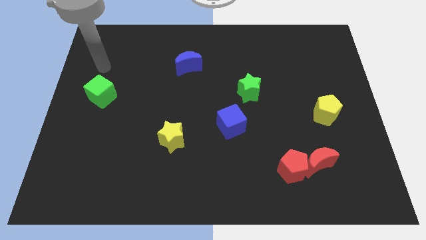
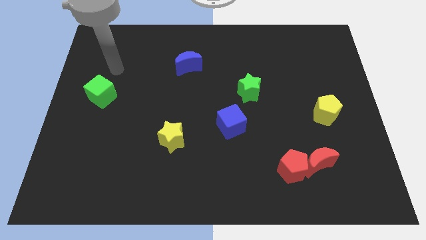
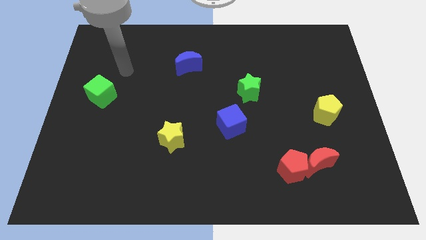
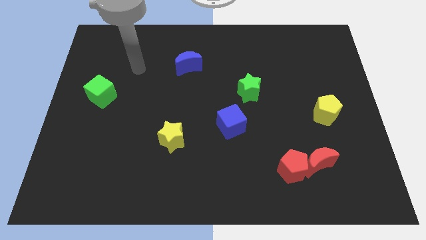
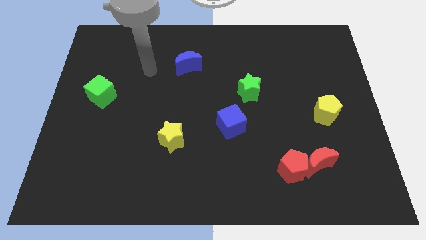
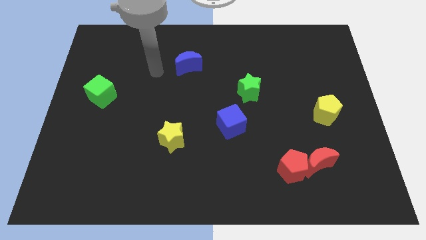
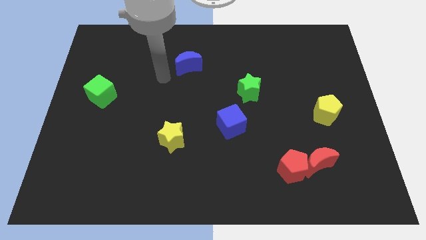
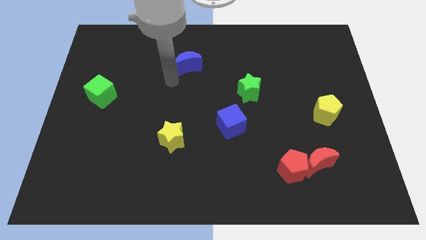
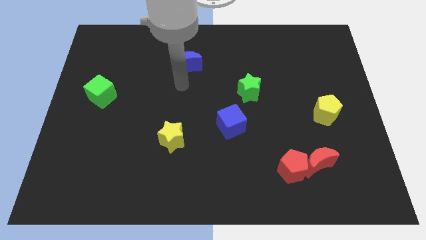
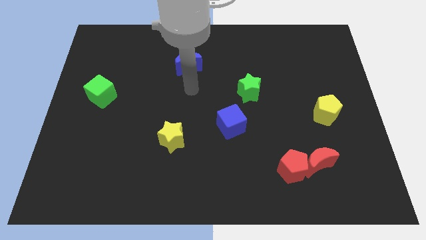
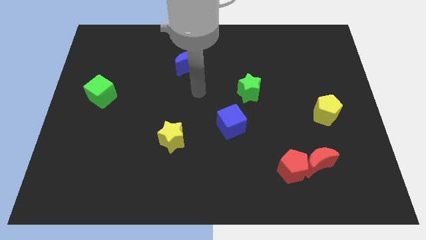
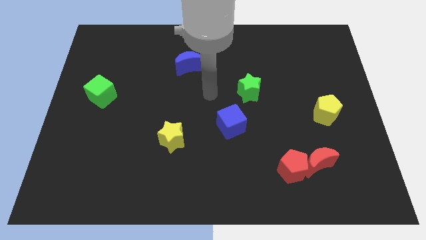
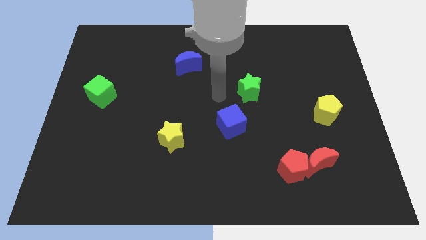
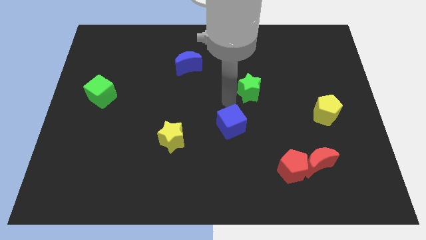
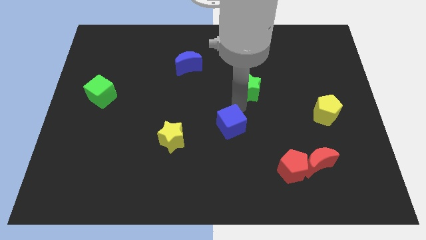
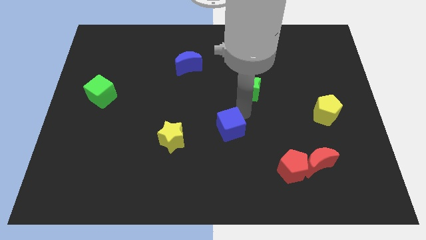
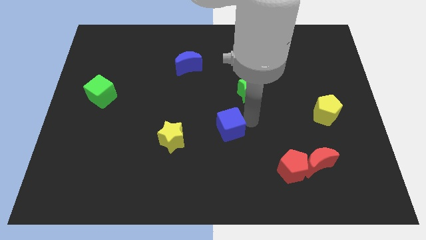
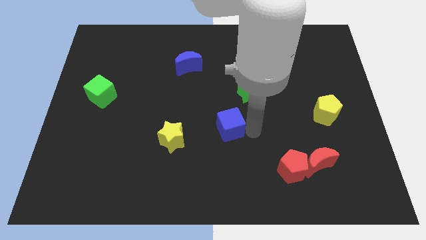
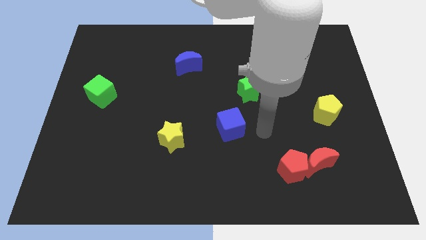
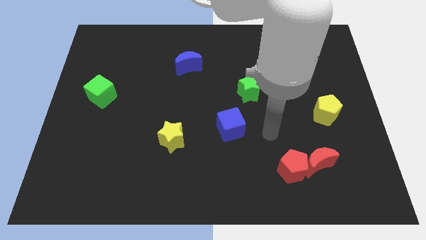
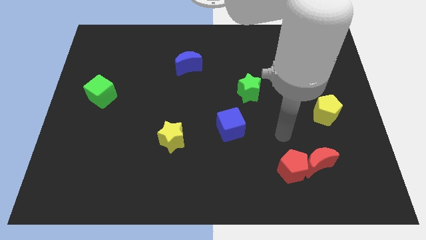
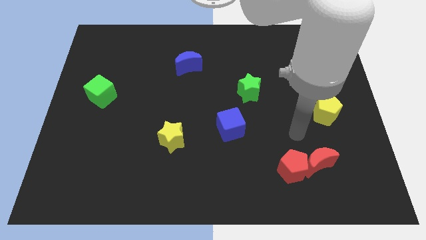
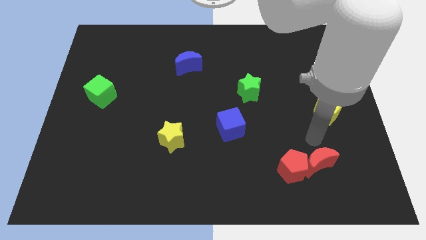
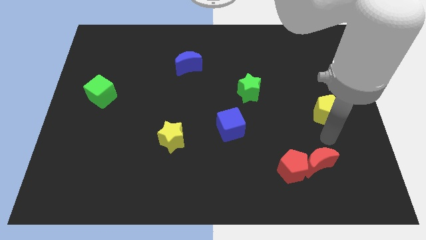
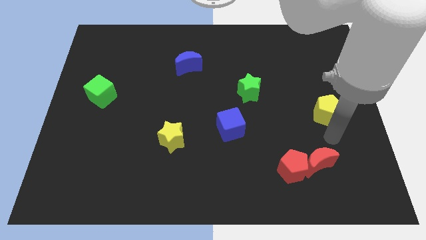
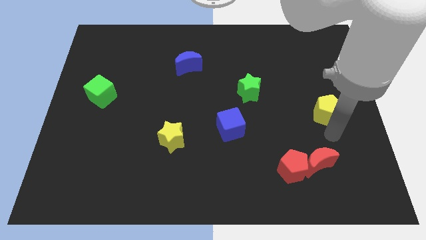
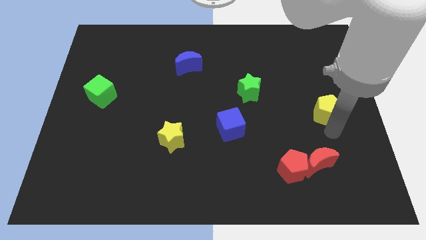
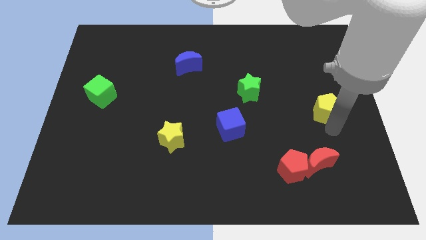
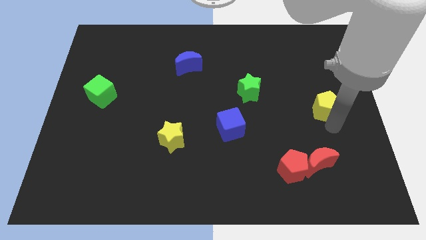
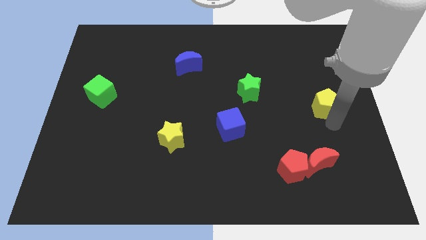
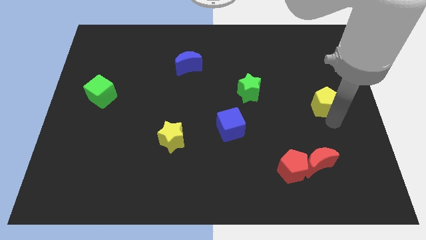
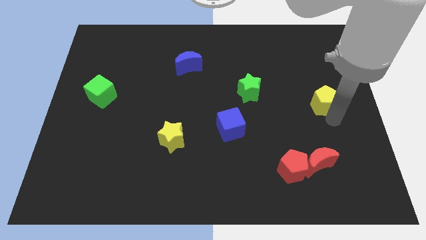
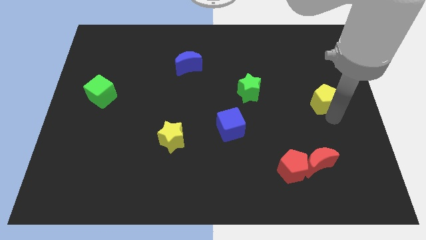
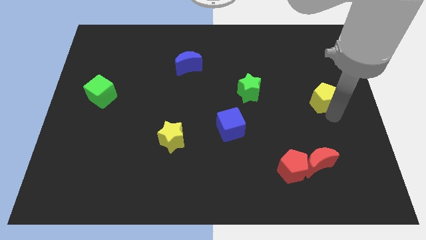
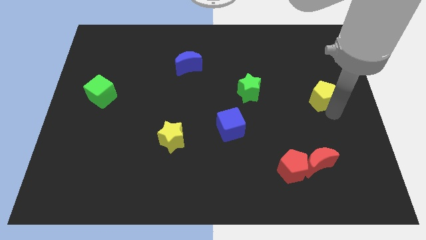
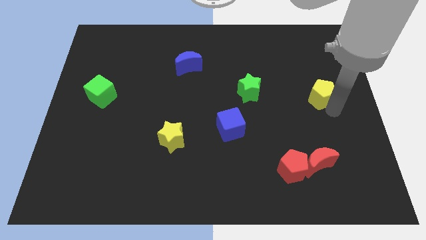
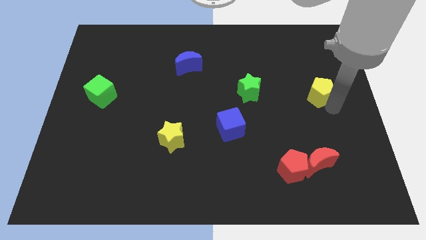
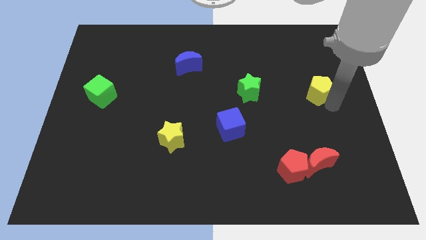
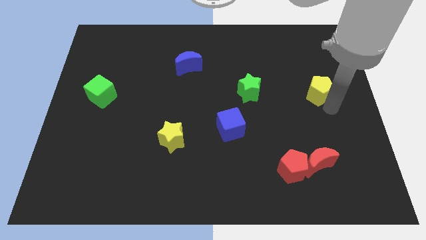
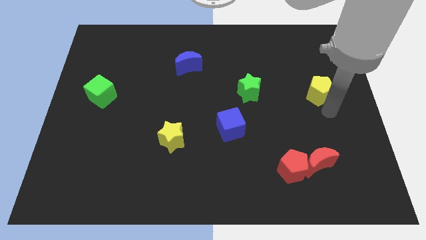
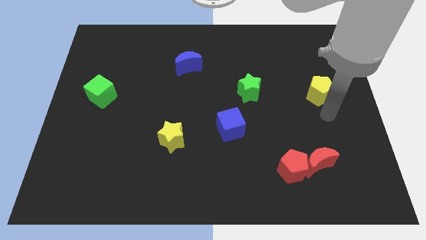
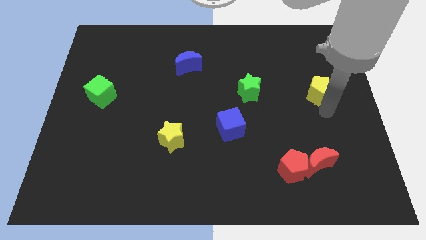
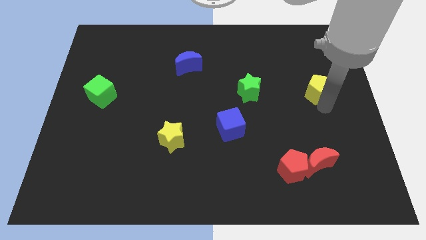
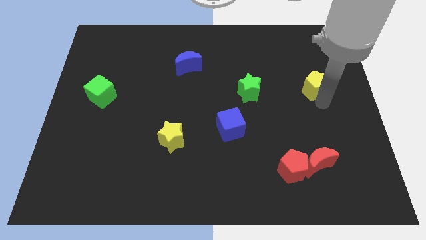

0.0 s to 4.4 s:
slightly slide the yellow pentagon upwards

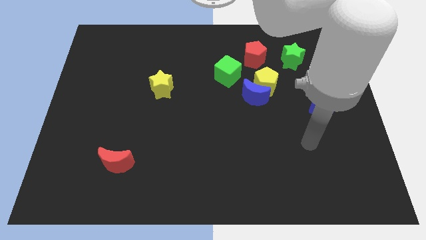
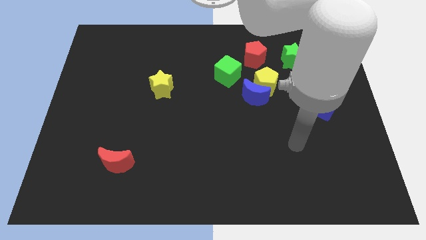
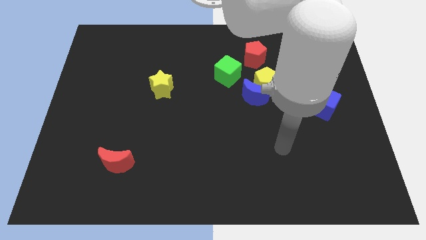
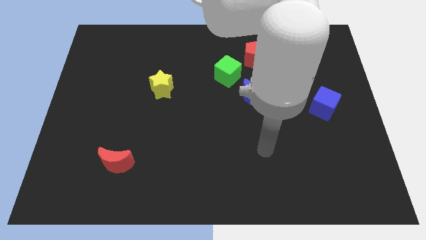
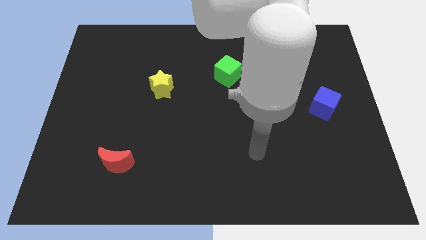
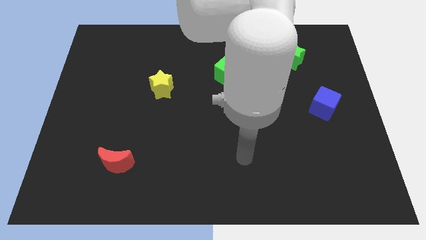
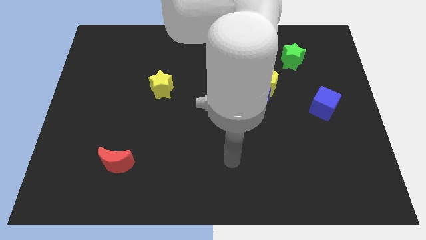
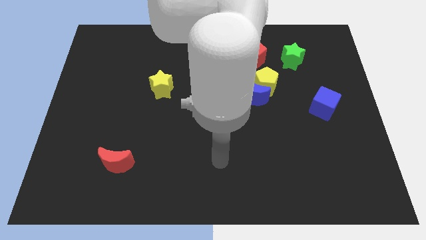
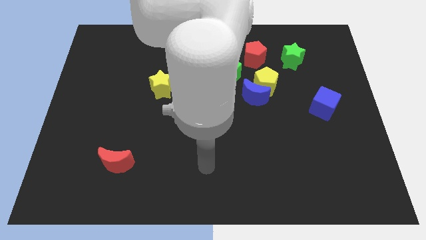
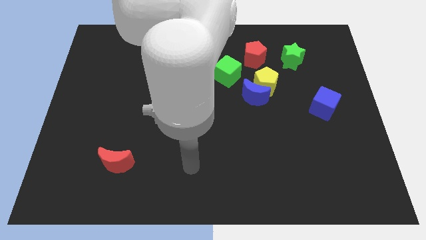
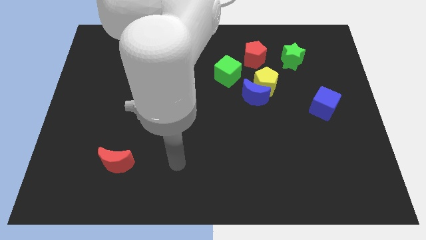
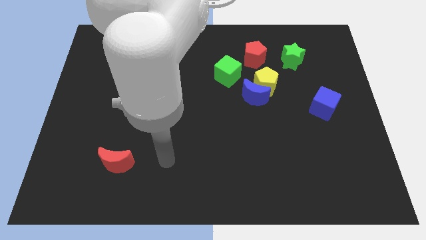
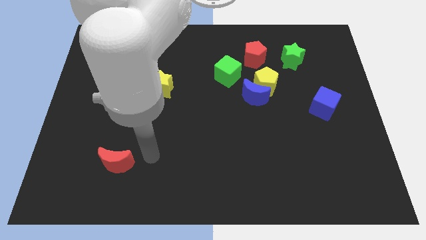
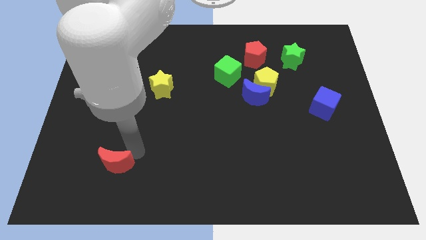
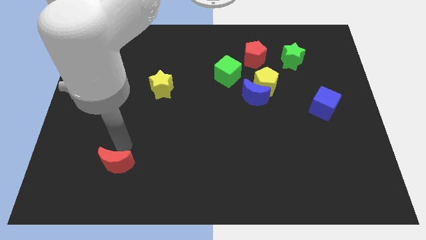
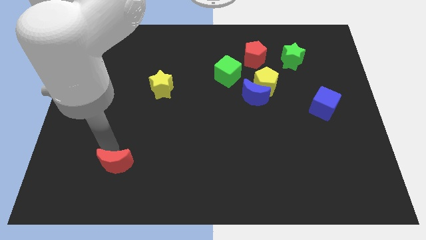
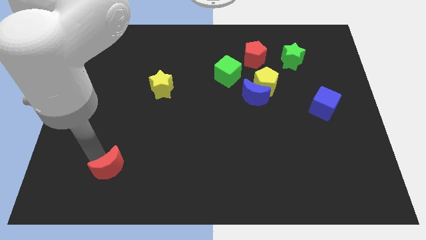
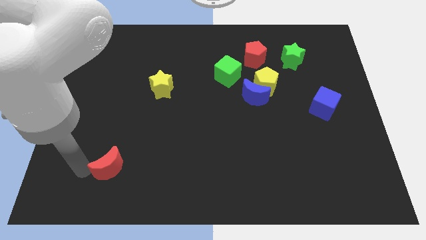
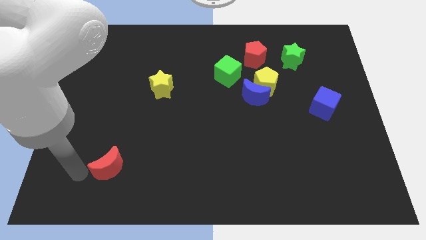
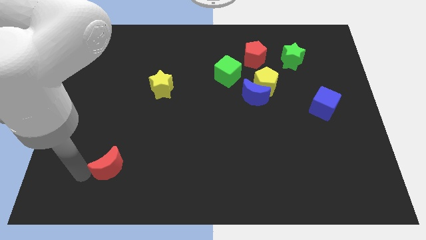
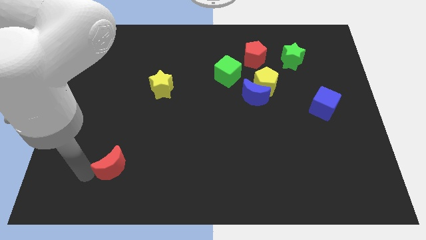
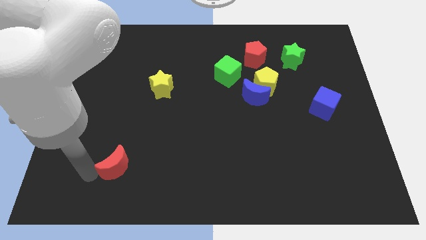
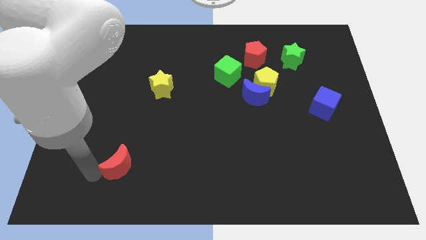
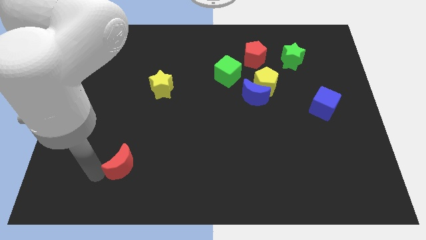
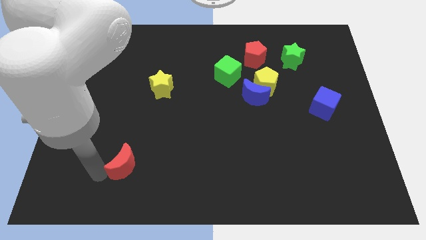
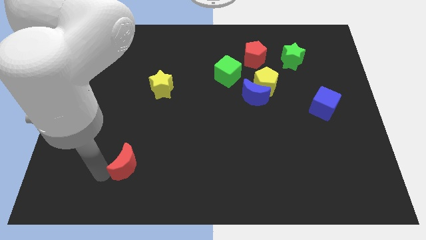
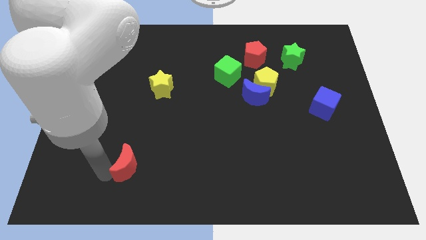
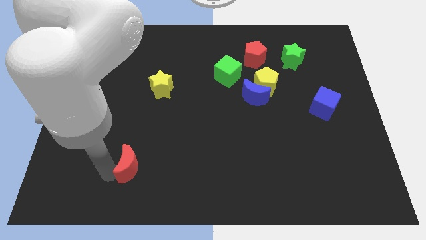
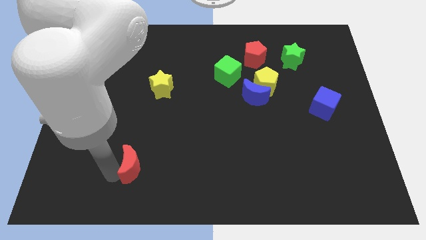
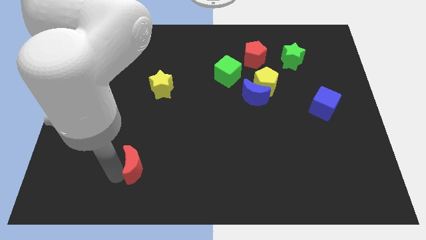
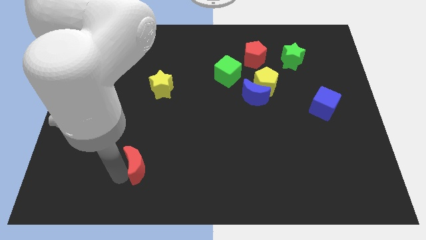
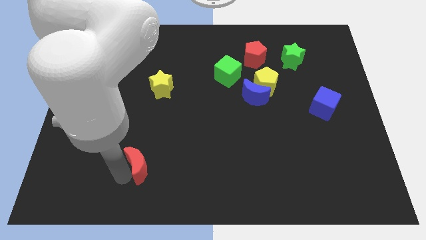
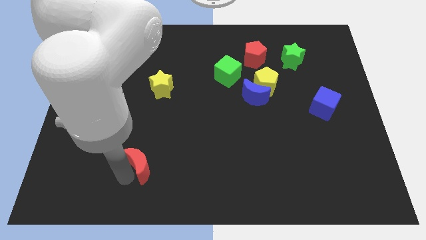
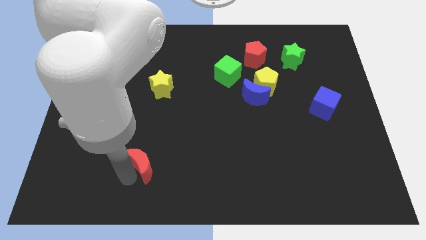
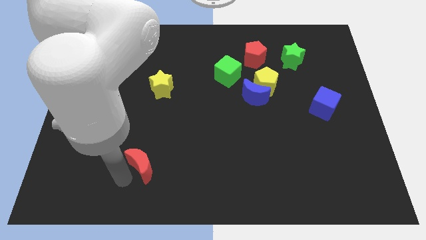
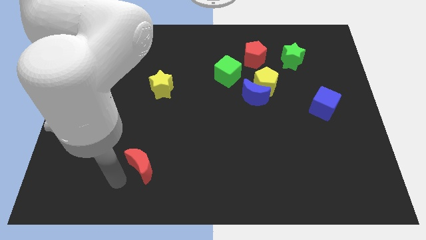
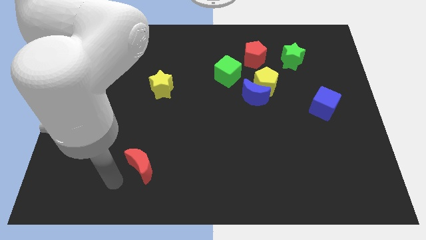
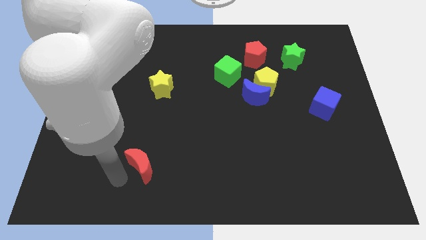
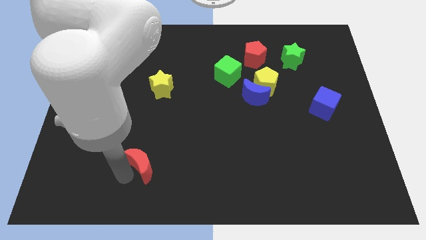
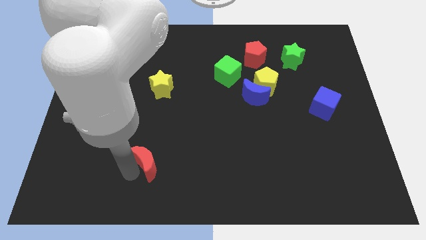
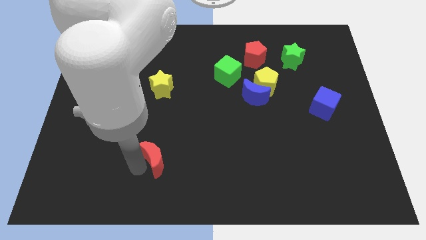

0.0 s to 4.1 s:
push the red moon slightly right
